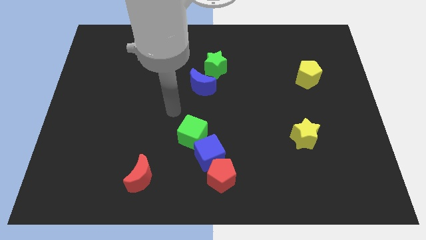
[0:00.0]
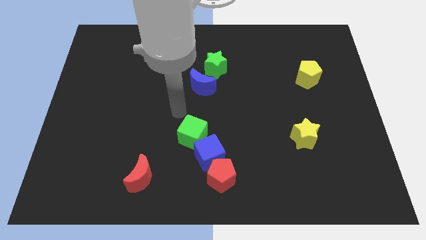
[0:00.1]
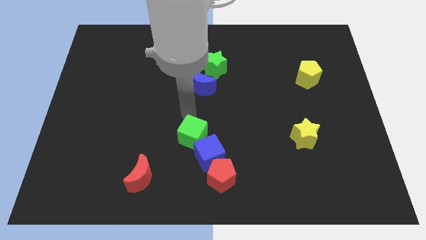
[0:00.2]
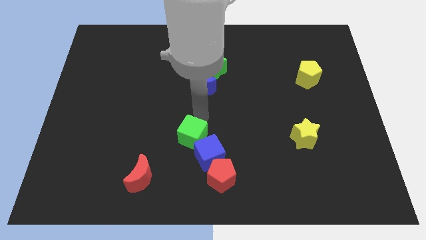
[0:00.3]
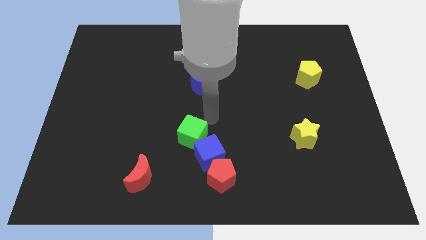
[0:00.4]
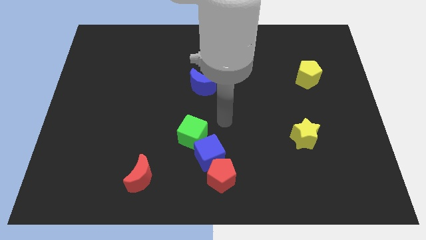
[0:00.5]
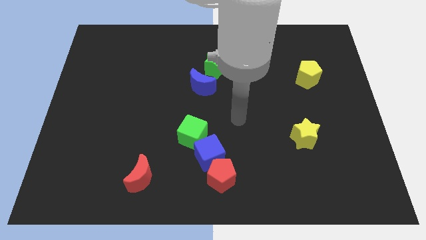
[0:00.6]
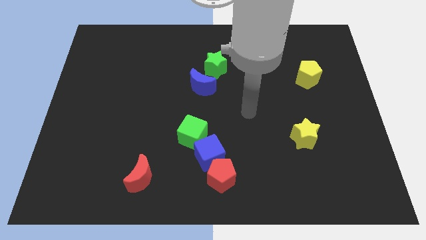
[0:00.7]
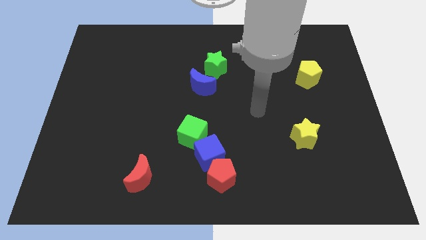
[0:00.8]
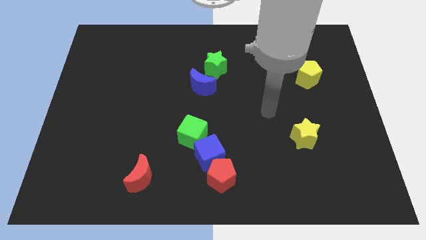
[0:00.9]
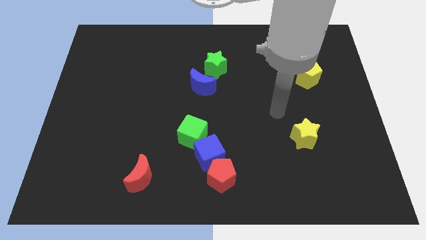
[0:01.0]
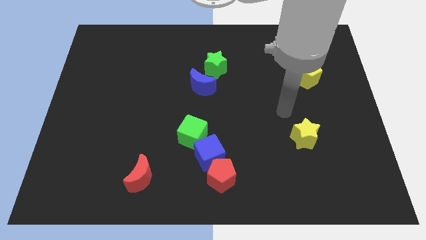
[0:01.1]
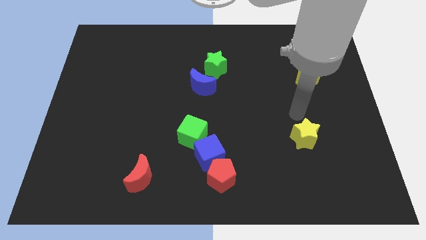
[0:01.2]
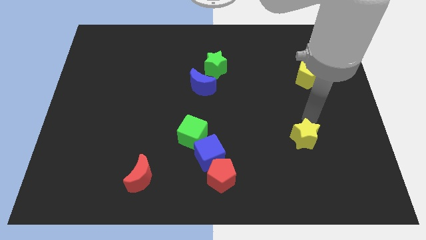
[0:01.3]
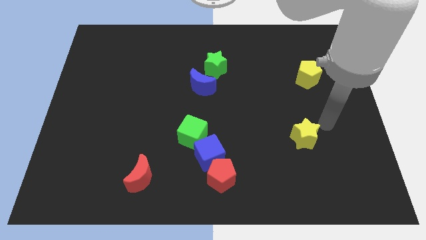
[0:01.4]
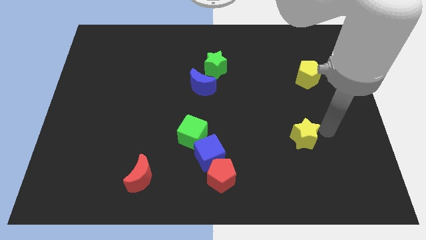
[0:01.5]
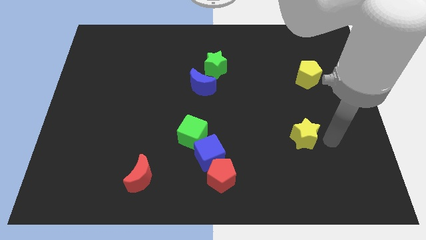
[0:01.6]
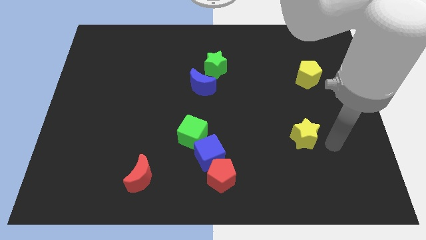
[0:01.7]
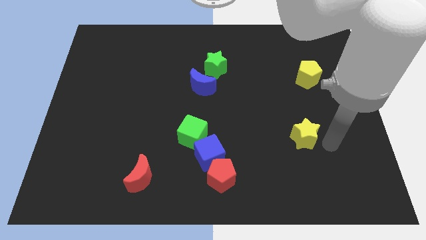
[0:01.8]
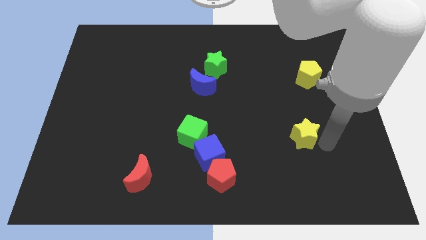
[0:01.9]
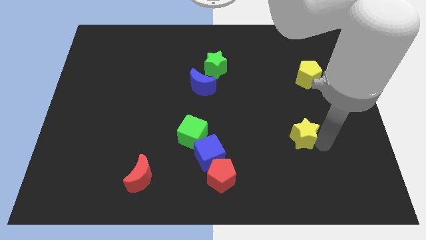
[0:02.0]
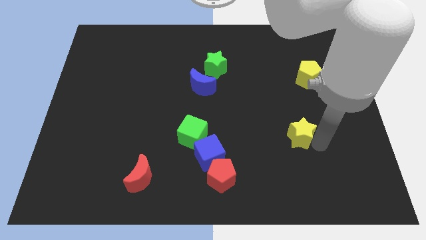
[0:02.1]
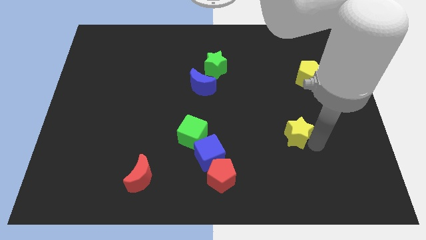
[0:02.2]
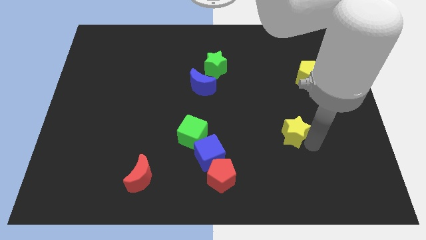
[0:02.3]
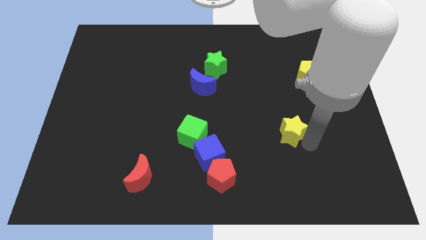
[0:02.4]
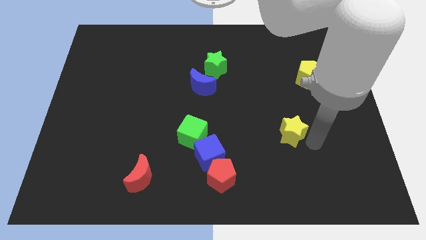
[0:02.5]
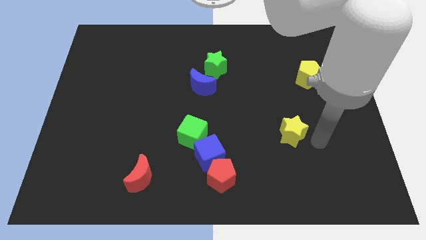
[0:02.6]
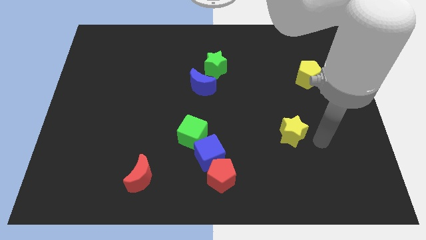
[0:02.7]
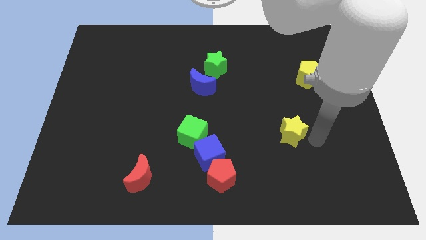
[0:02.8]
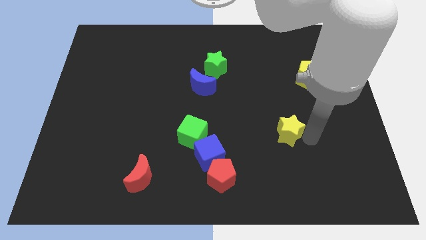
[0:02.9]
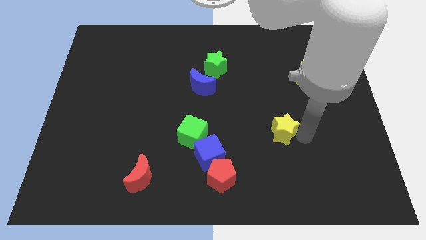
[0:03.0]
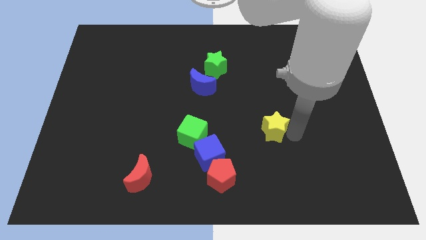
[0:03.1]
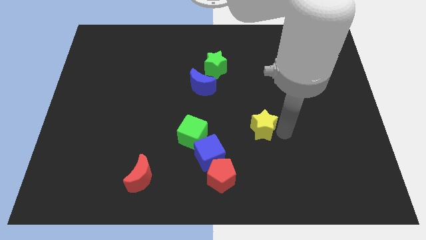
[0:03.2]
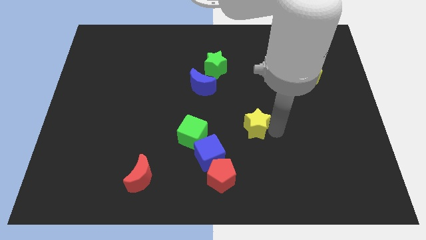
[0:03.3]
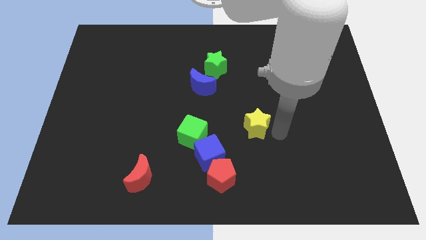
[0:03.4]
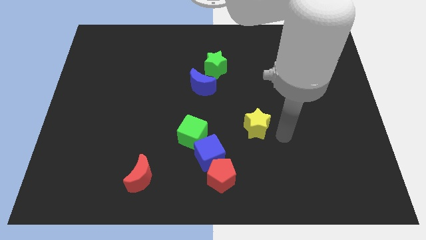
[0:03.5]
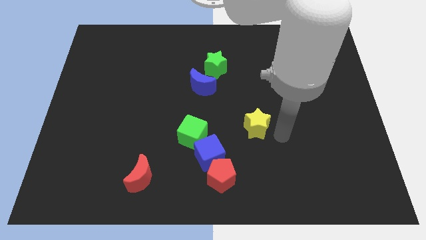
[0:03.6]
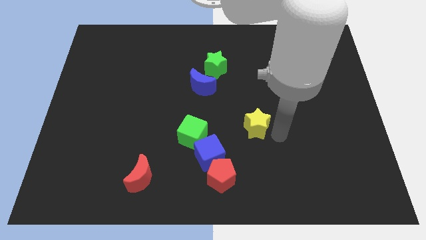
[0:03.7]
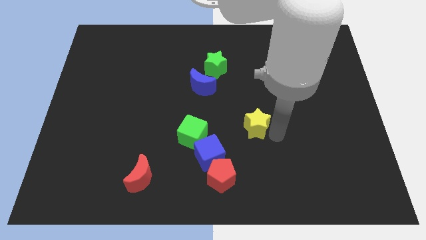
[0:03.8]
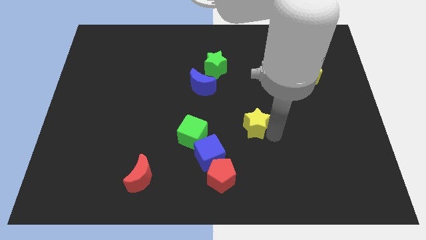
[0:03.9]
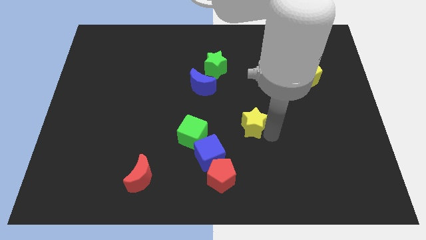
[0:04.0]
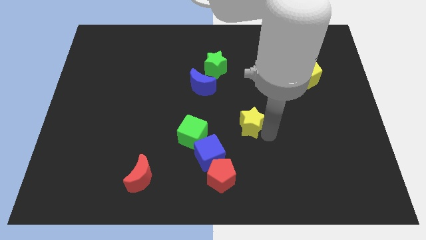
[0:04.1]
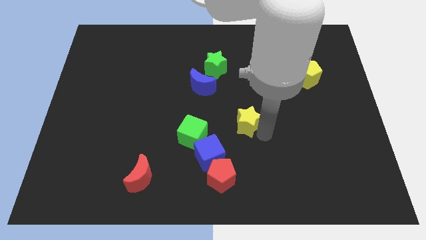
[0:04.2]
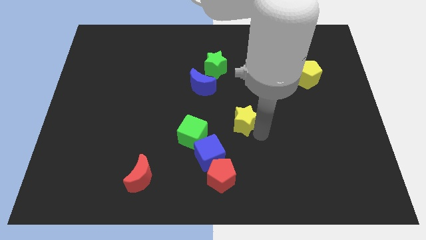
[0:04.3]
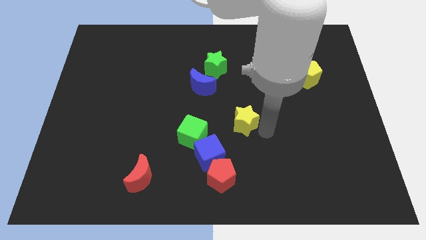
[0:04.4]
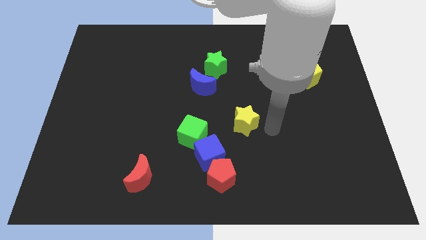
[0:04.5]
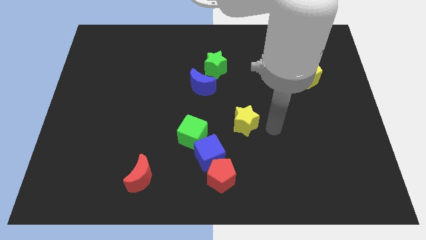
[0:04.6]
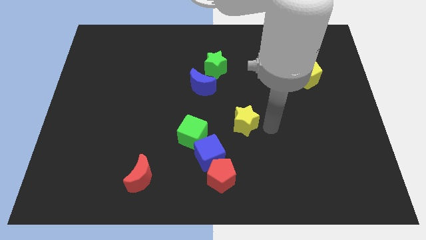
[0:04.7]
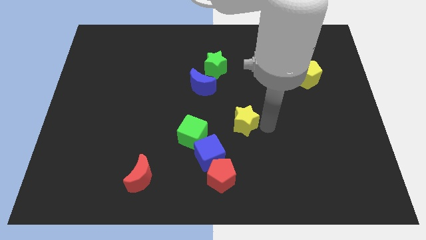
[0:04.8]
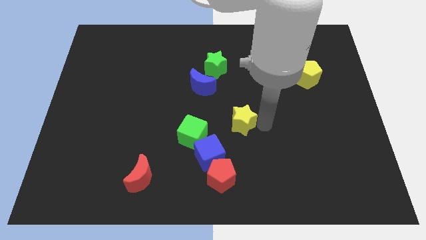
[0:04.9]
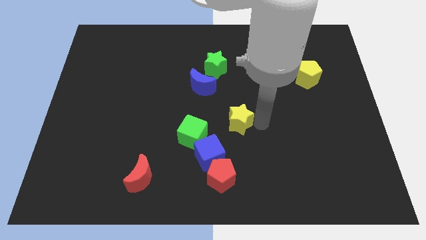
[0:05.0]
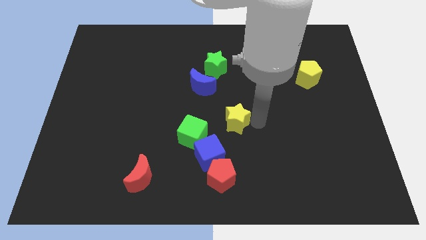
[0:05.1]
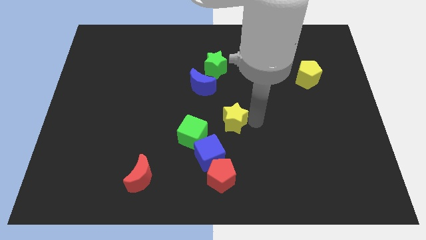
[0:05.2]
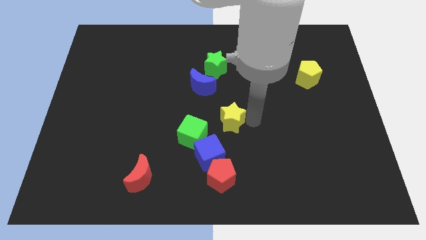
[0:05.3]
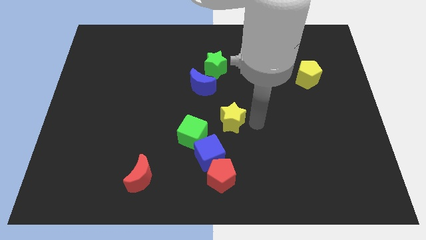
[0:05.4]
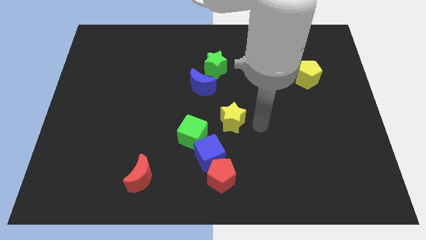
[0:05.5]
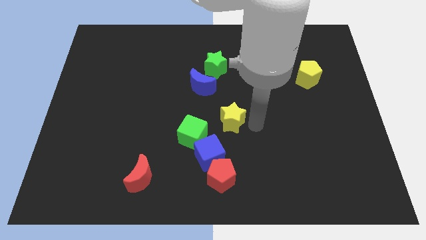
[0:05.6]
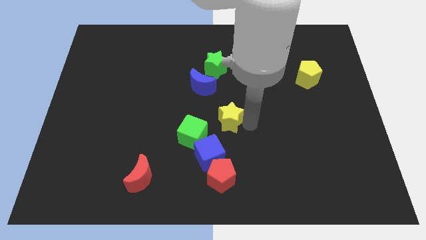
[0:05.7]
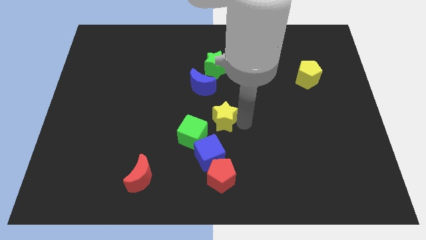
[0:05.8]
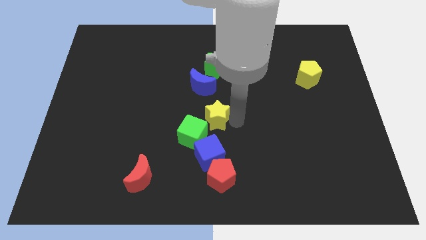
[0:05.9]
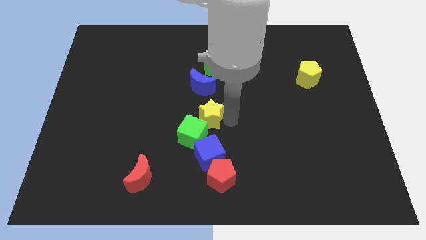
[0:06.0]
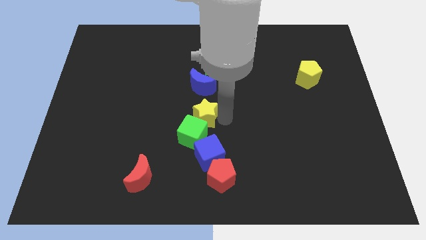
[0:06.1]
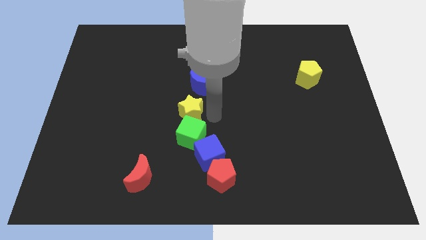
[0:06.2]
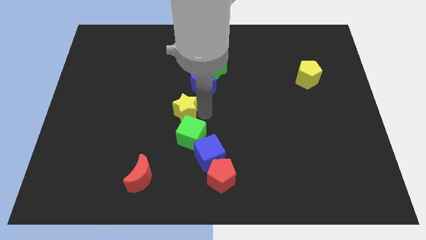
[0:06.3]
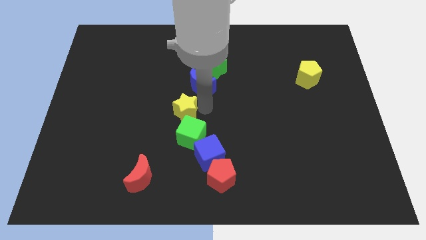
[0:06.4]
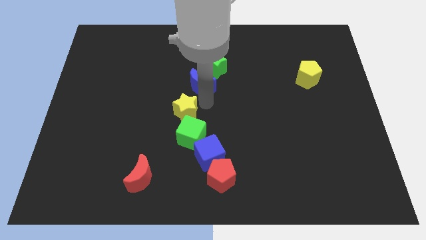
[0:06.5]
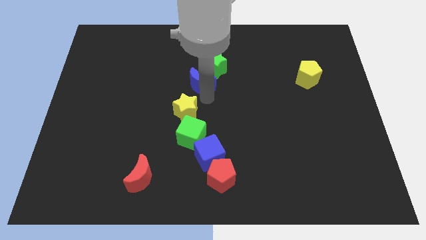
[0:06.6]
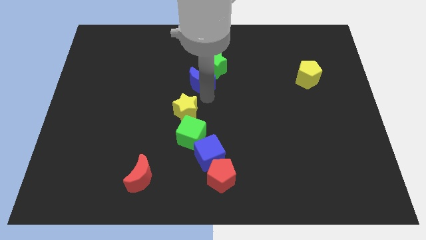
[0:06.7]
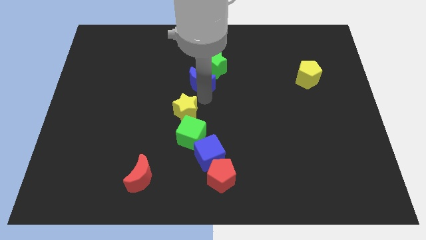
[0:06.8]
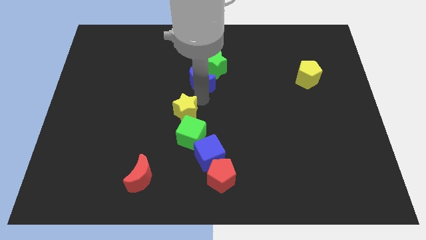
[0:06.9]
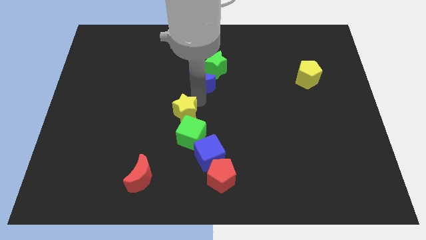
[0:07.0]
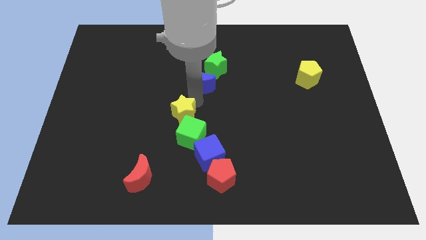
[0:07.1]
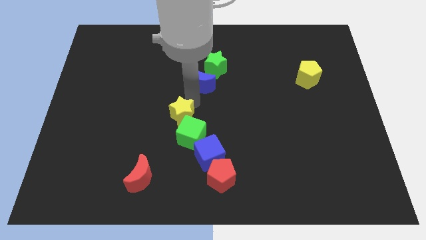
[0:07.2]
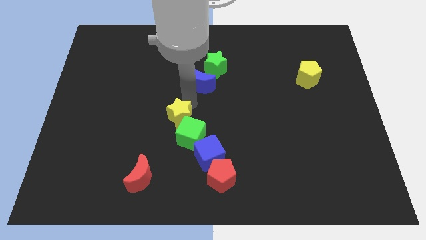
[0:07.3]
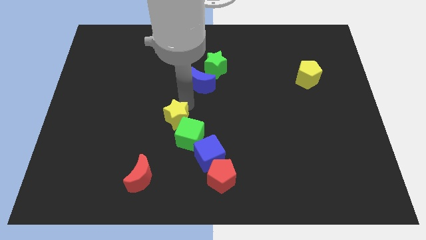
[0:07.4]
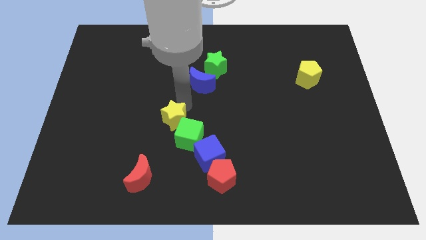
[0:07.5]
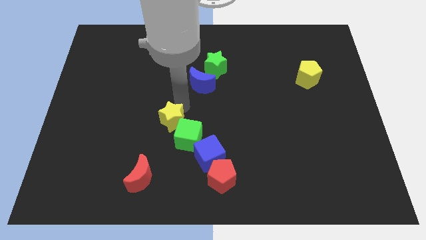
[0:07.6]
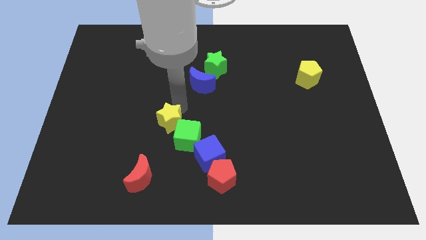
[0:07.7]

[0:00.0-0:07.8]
put the yellow star left of the green cube

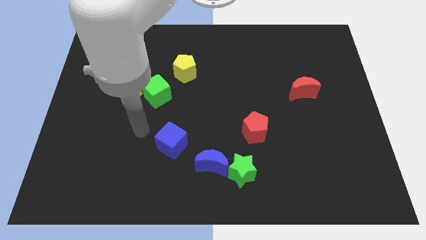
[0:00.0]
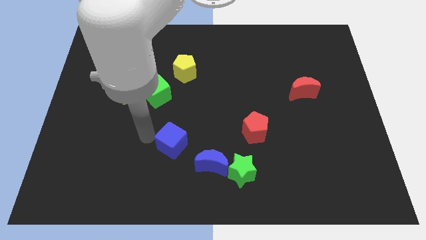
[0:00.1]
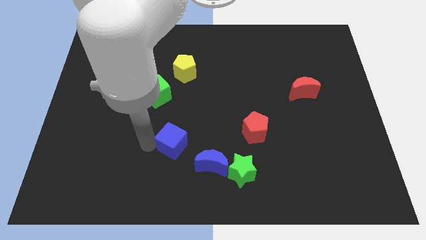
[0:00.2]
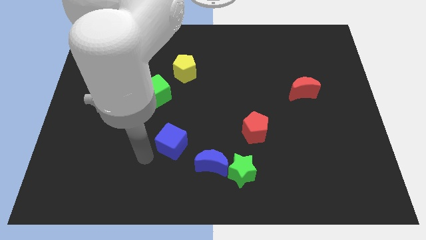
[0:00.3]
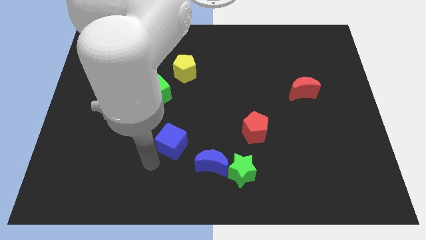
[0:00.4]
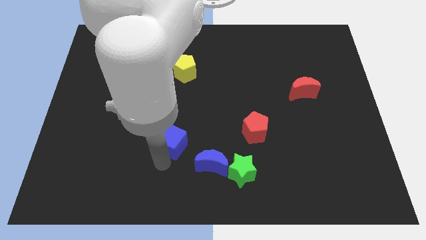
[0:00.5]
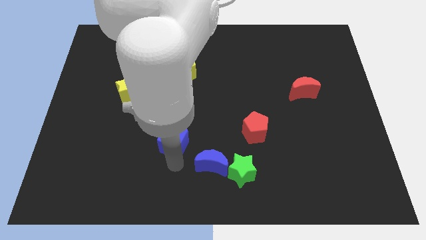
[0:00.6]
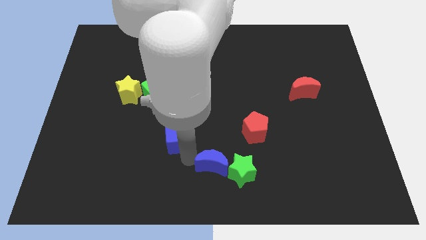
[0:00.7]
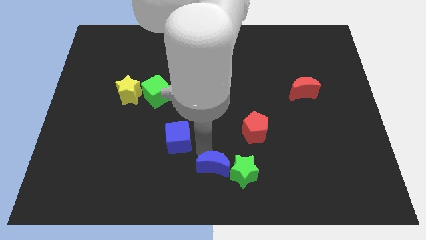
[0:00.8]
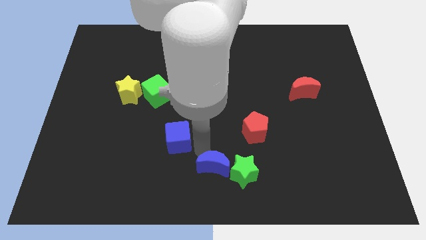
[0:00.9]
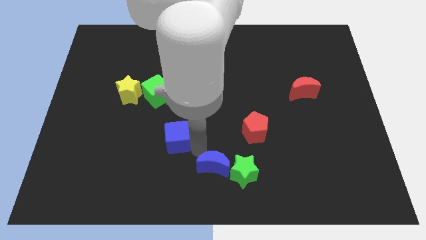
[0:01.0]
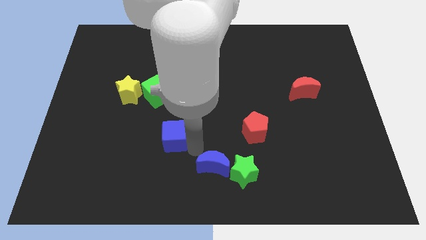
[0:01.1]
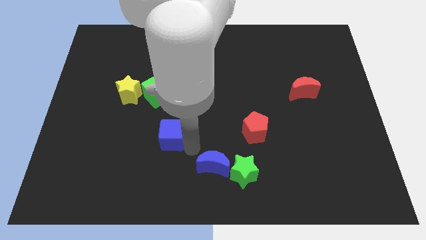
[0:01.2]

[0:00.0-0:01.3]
move the blue cube below the green cube
